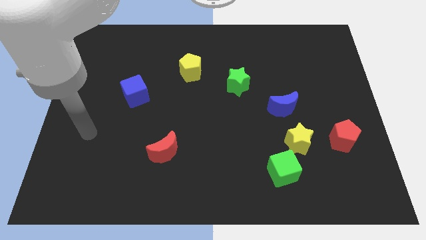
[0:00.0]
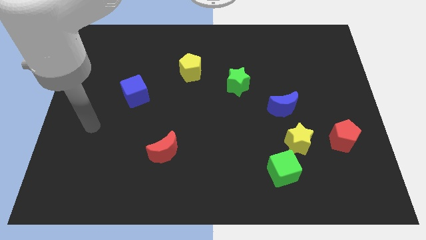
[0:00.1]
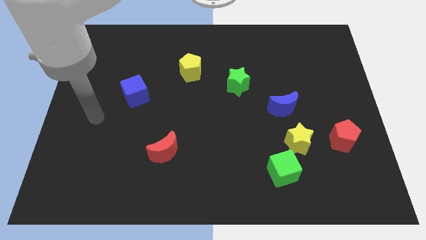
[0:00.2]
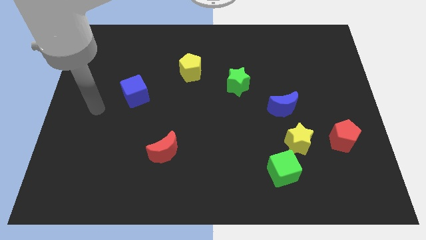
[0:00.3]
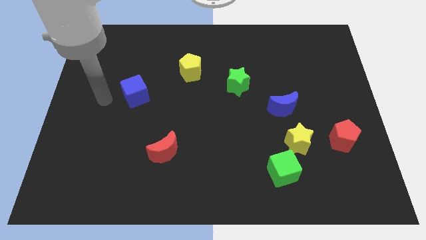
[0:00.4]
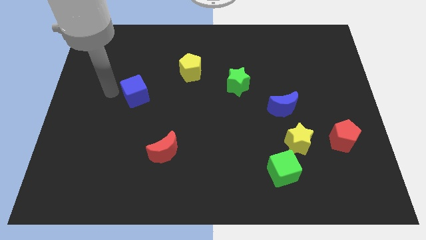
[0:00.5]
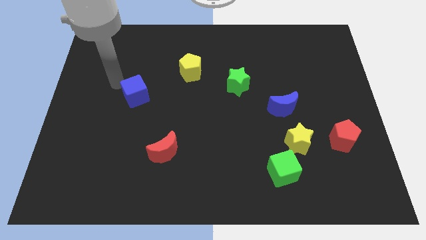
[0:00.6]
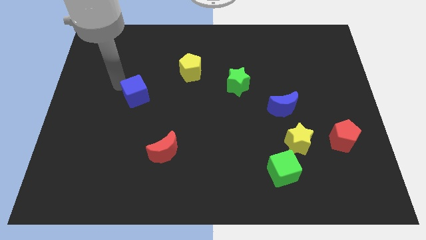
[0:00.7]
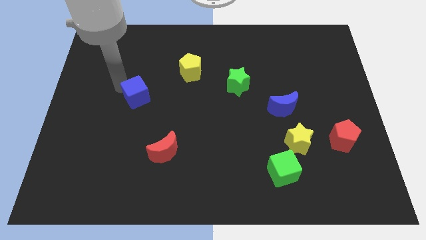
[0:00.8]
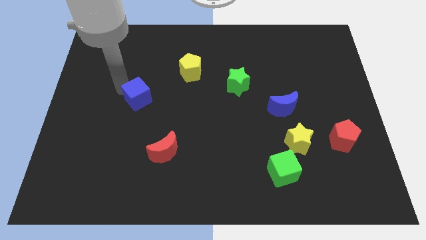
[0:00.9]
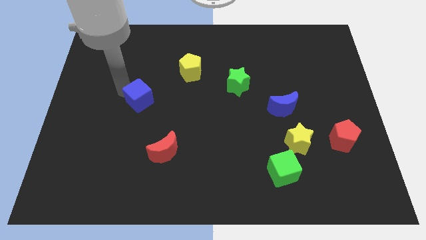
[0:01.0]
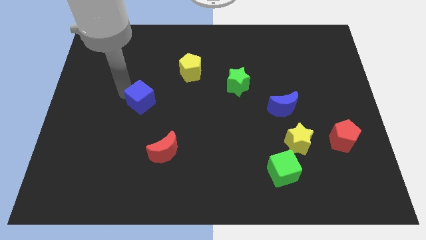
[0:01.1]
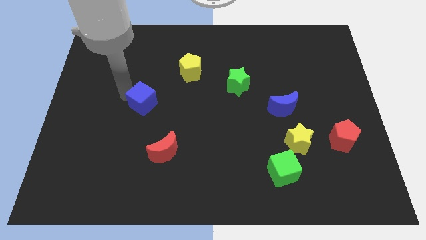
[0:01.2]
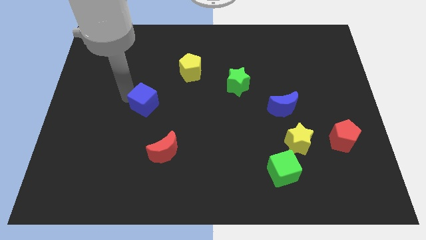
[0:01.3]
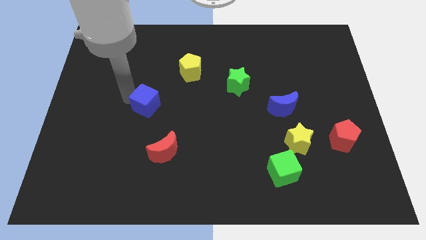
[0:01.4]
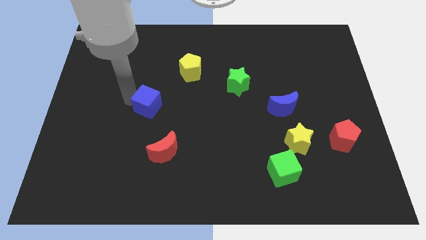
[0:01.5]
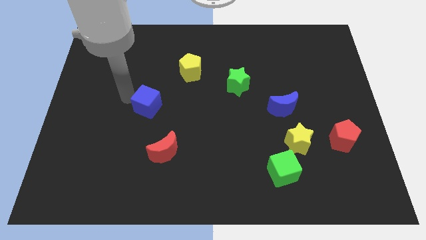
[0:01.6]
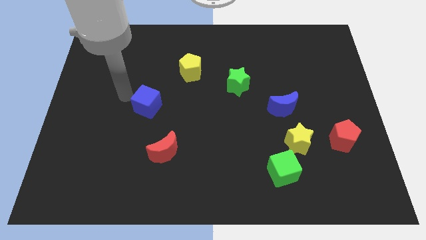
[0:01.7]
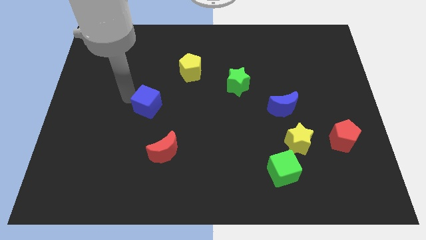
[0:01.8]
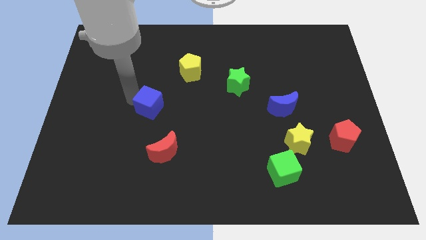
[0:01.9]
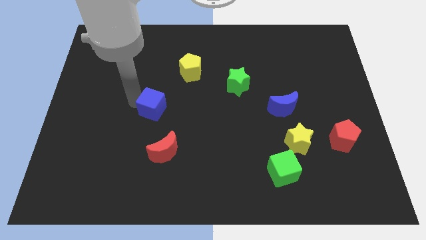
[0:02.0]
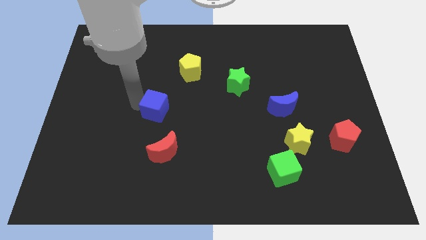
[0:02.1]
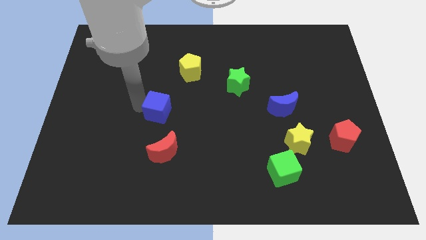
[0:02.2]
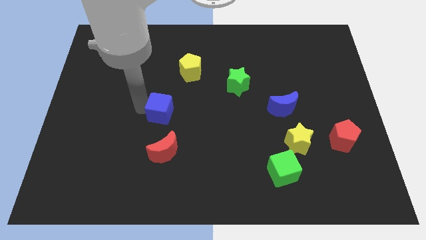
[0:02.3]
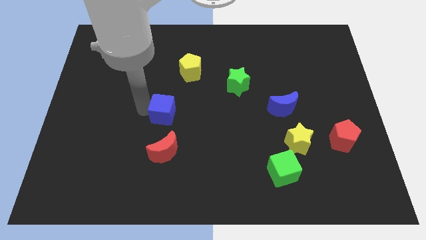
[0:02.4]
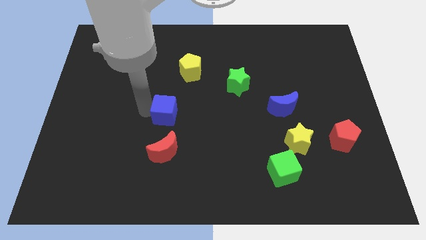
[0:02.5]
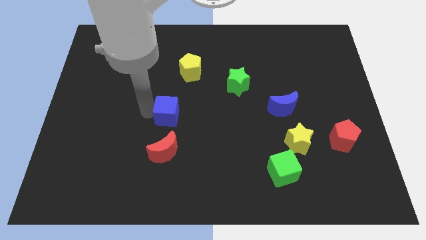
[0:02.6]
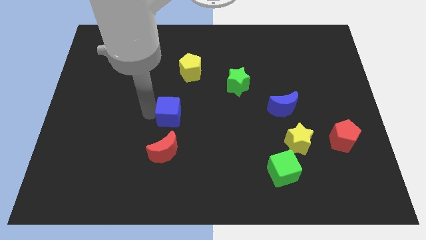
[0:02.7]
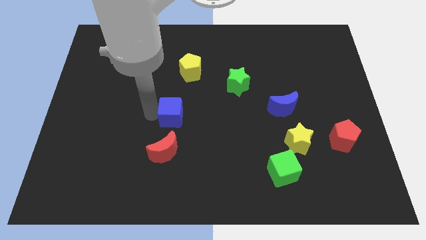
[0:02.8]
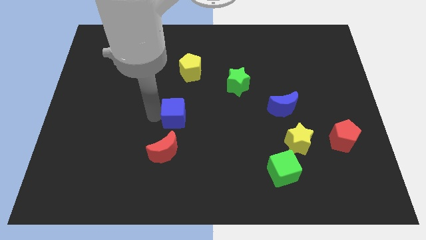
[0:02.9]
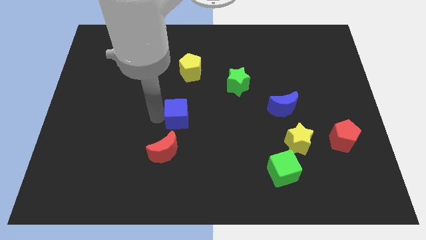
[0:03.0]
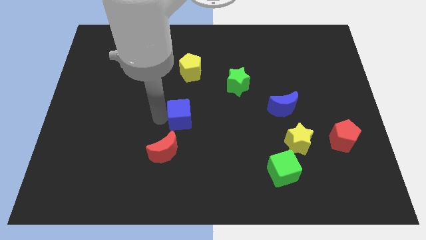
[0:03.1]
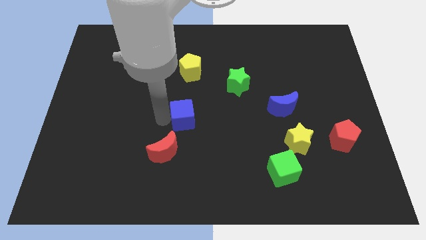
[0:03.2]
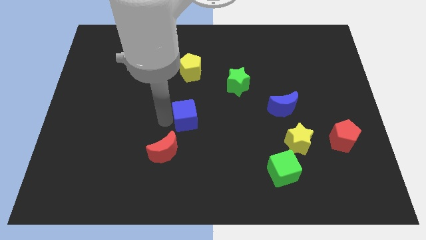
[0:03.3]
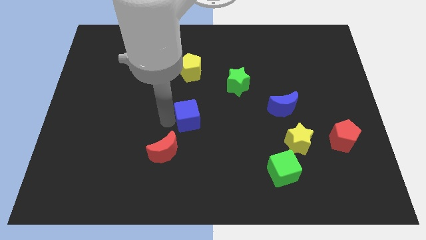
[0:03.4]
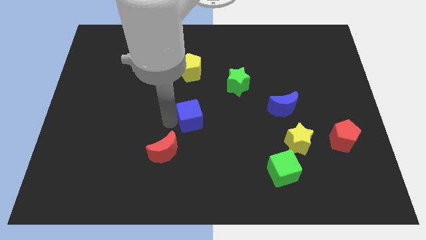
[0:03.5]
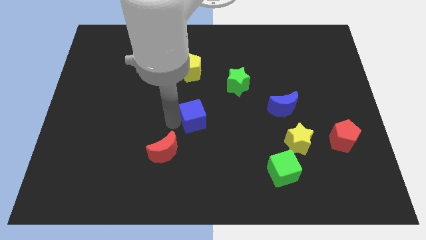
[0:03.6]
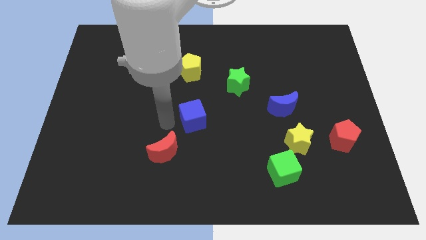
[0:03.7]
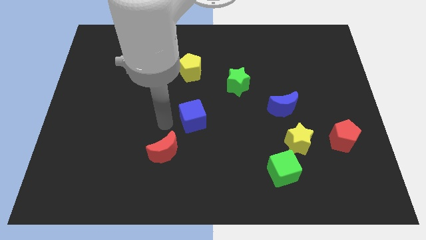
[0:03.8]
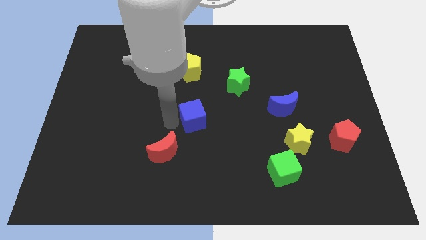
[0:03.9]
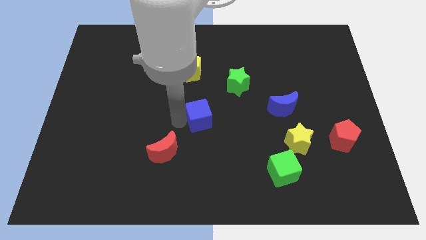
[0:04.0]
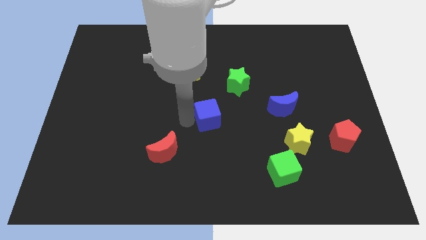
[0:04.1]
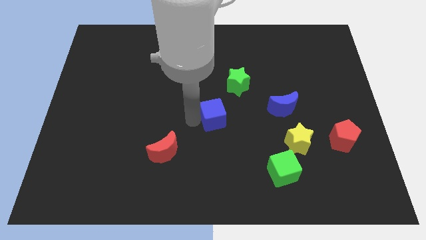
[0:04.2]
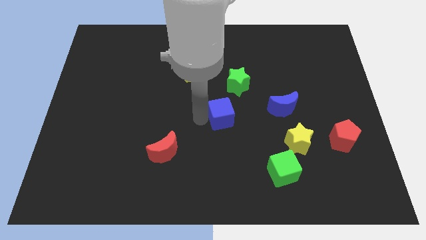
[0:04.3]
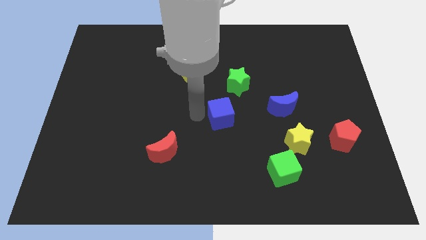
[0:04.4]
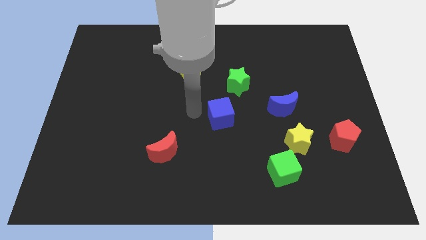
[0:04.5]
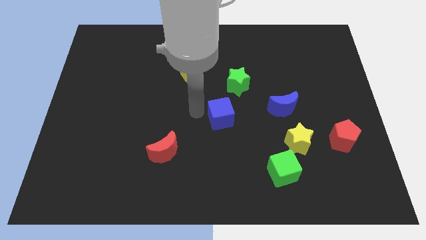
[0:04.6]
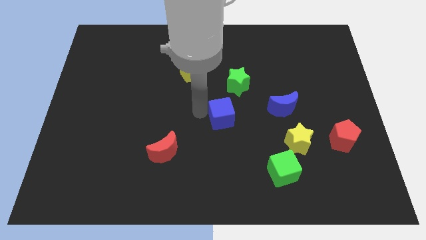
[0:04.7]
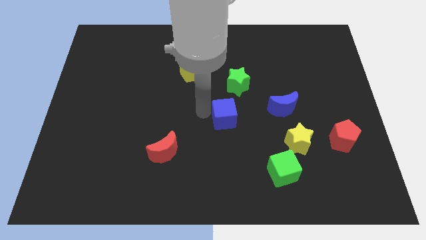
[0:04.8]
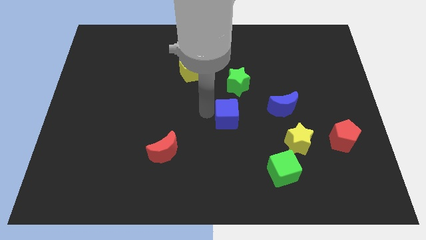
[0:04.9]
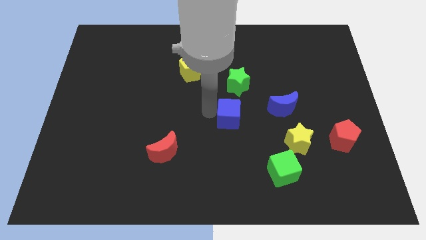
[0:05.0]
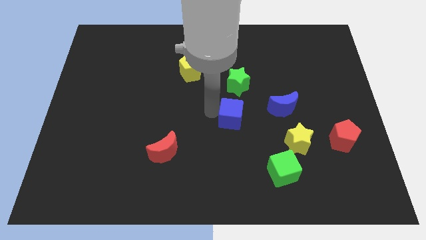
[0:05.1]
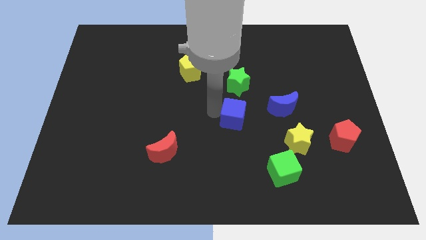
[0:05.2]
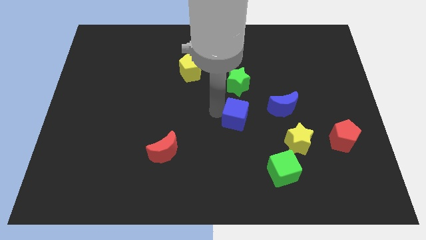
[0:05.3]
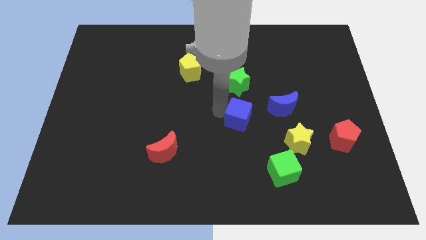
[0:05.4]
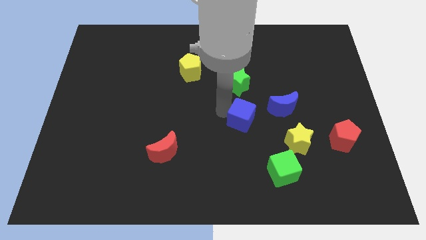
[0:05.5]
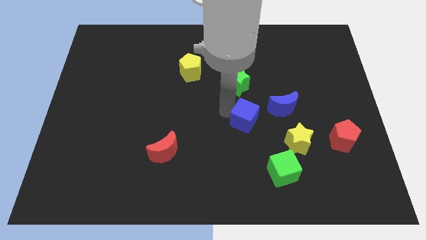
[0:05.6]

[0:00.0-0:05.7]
slide the blue cube to the bottom left side of the blue moon
